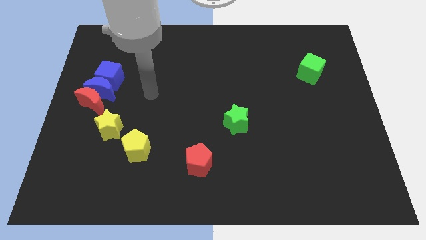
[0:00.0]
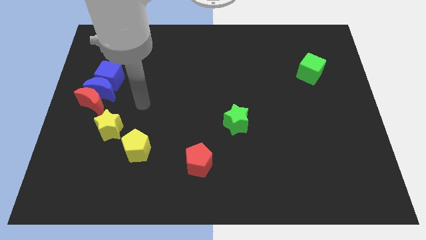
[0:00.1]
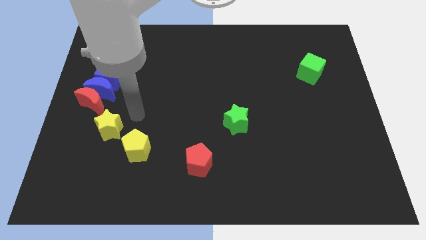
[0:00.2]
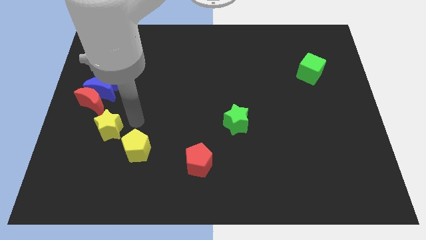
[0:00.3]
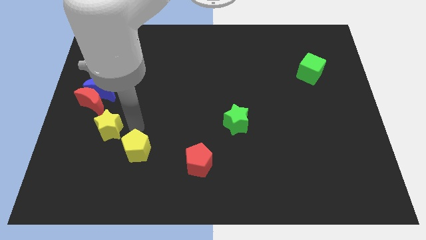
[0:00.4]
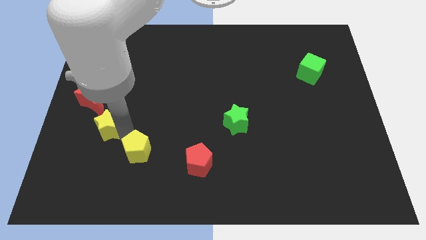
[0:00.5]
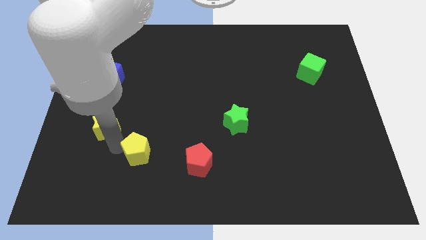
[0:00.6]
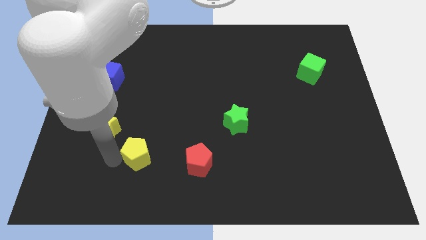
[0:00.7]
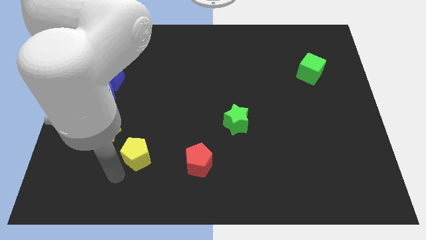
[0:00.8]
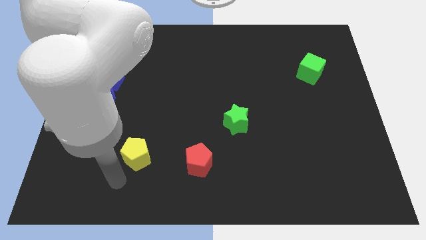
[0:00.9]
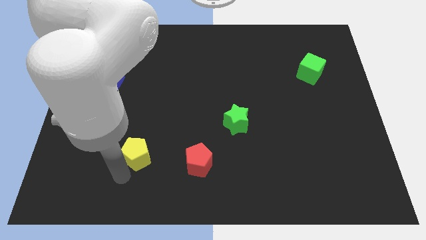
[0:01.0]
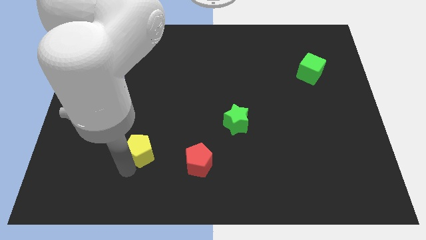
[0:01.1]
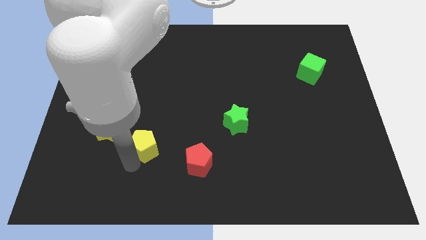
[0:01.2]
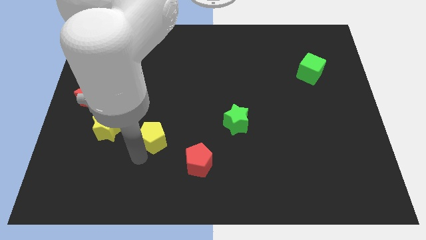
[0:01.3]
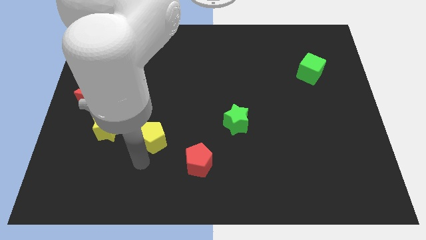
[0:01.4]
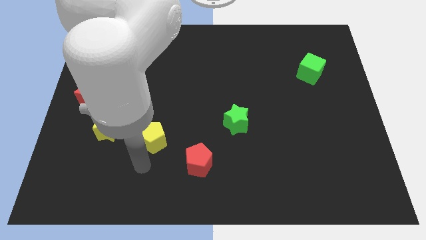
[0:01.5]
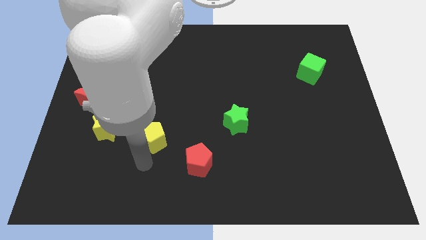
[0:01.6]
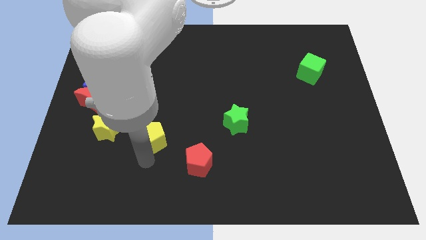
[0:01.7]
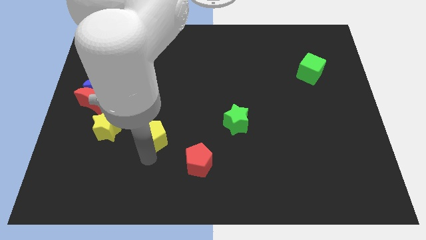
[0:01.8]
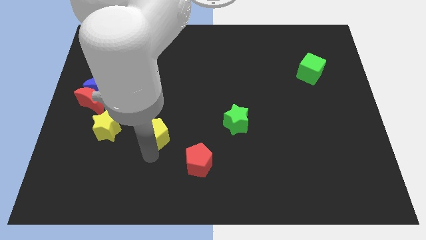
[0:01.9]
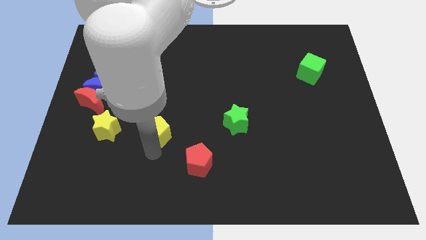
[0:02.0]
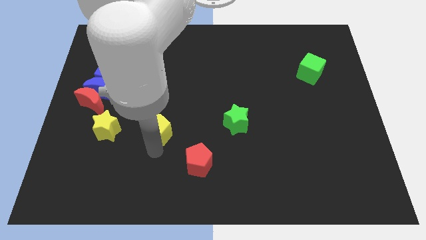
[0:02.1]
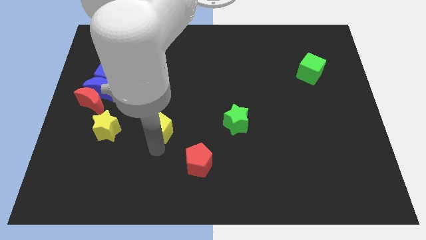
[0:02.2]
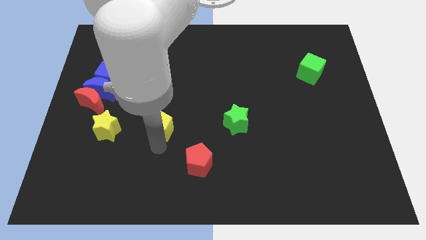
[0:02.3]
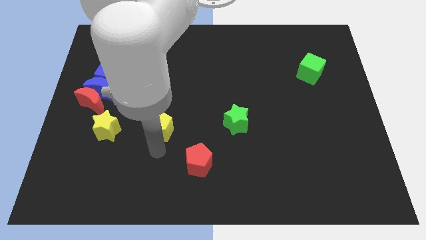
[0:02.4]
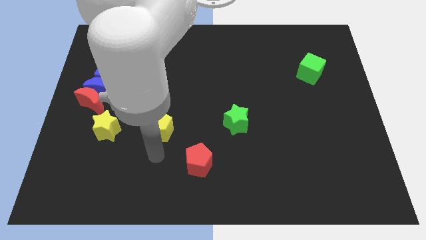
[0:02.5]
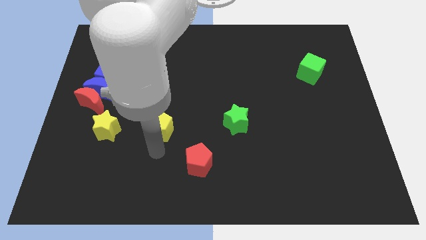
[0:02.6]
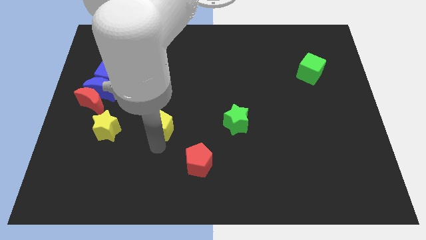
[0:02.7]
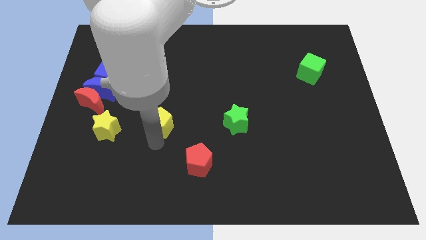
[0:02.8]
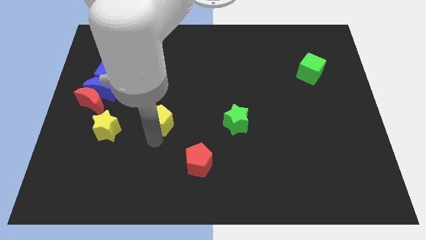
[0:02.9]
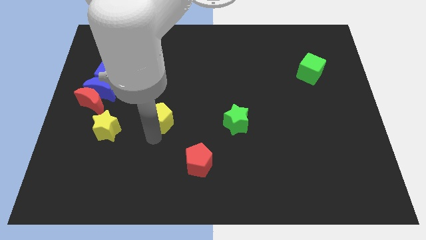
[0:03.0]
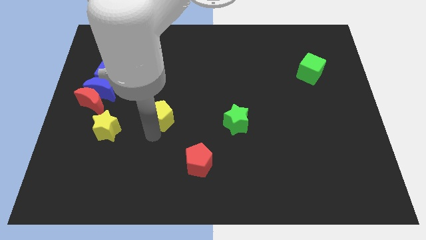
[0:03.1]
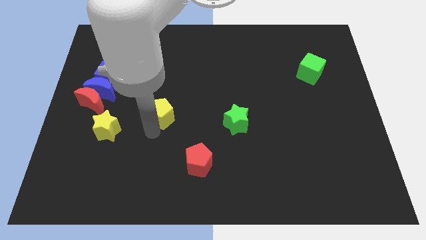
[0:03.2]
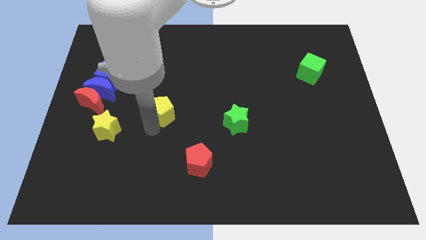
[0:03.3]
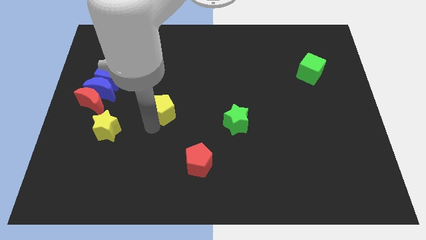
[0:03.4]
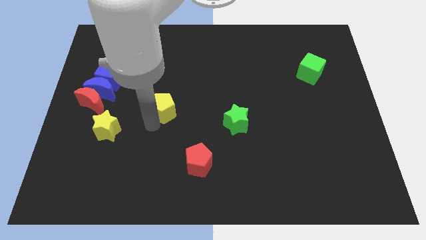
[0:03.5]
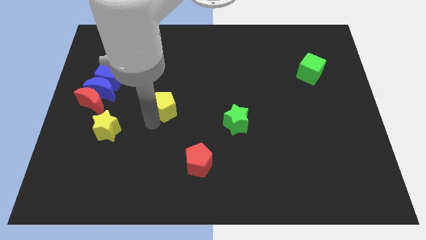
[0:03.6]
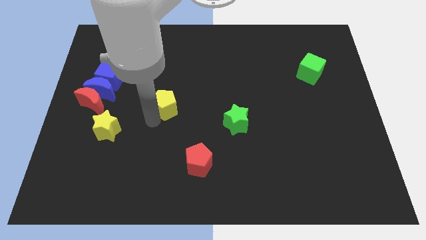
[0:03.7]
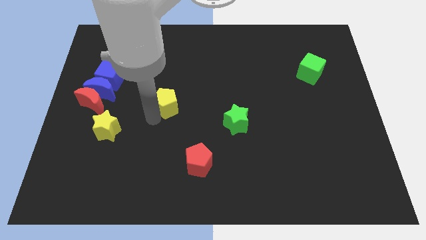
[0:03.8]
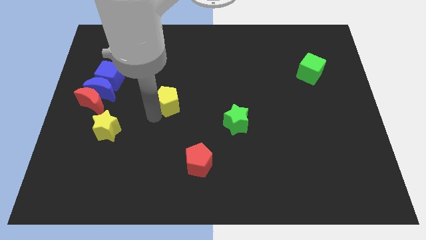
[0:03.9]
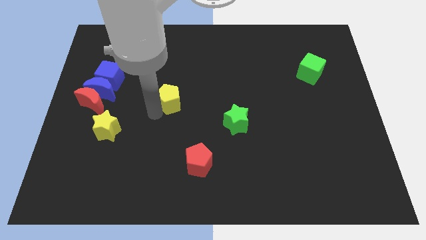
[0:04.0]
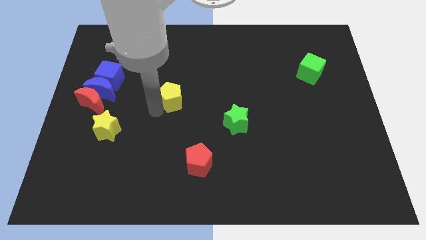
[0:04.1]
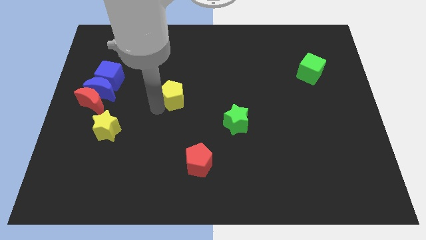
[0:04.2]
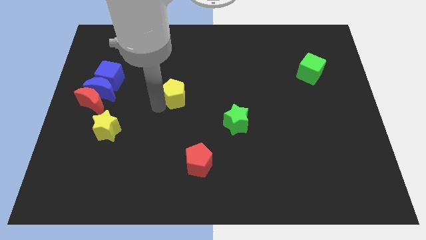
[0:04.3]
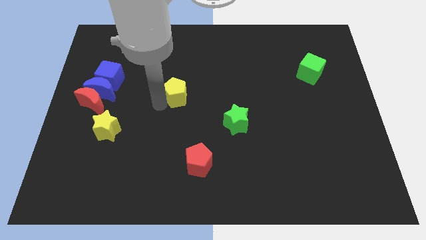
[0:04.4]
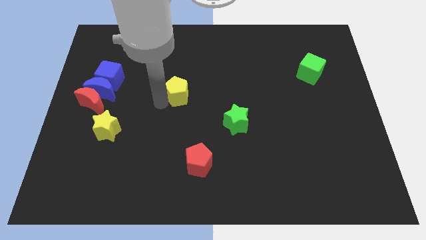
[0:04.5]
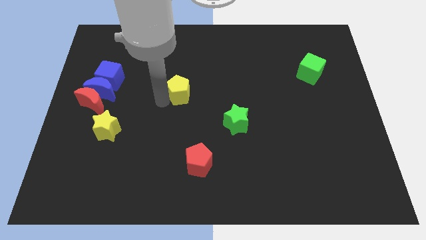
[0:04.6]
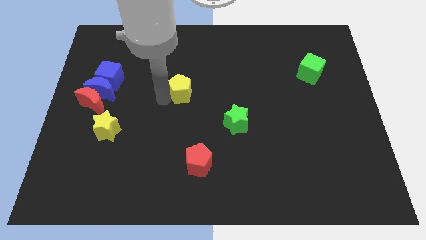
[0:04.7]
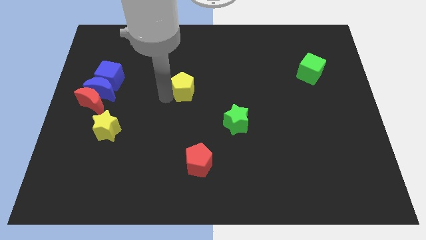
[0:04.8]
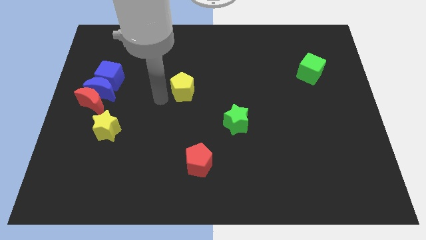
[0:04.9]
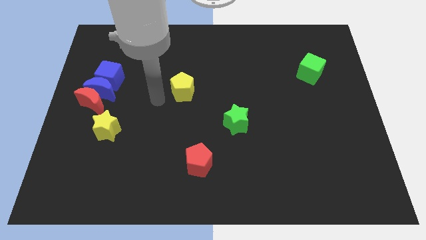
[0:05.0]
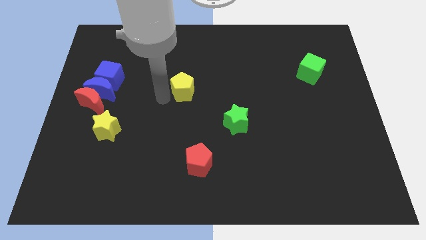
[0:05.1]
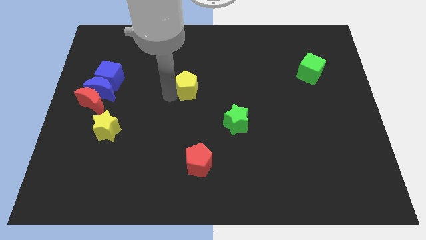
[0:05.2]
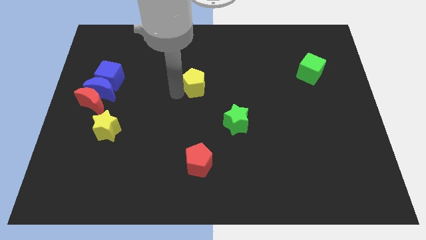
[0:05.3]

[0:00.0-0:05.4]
move the yellow pentagon upwards and to the right

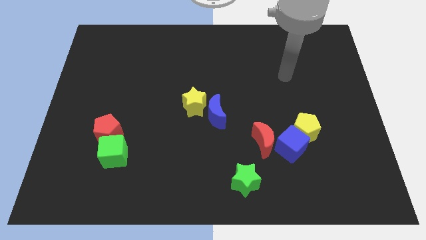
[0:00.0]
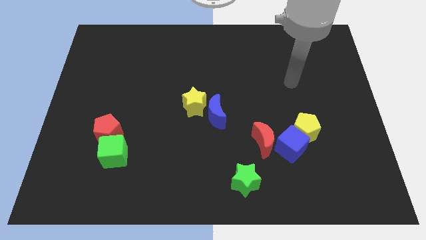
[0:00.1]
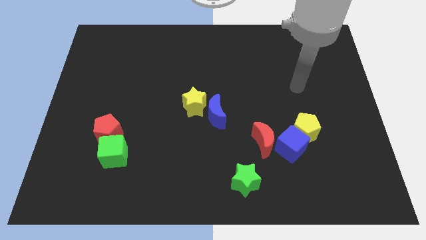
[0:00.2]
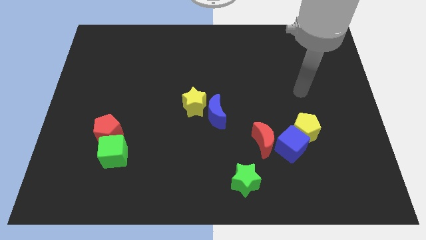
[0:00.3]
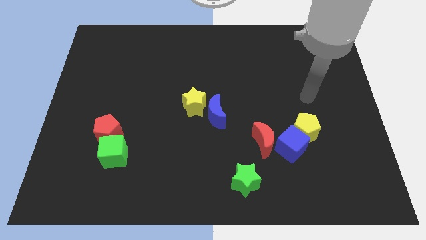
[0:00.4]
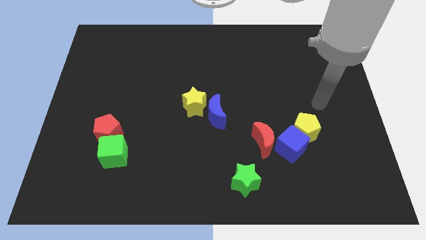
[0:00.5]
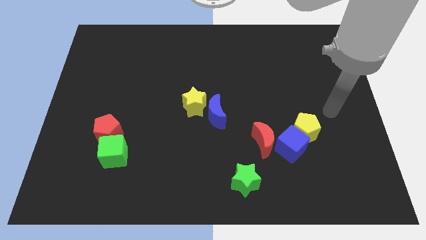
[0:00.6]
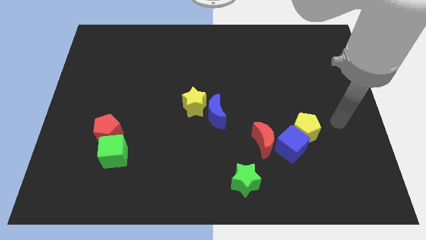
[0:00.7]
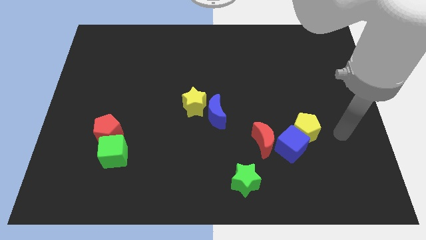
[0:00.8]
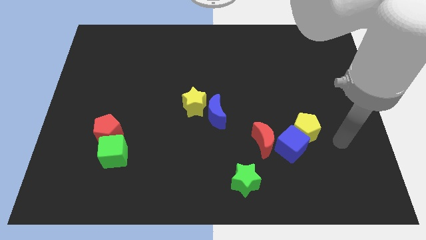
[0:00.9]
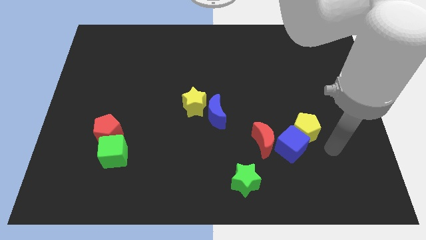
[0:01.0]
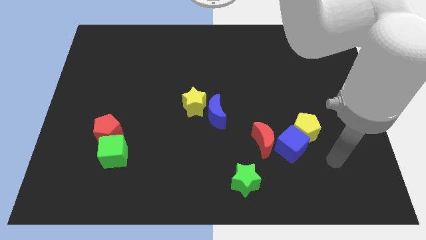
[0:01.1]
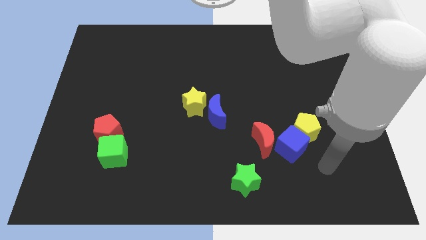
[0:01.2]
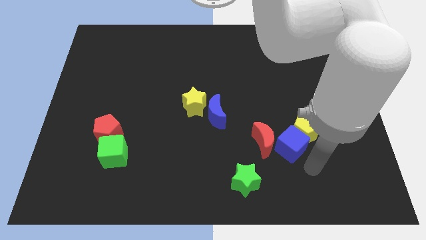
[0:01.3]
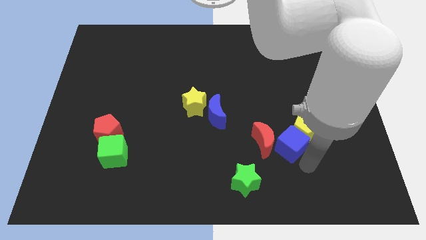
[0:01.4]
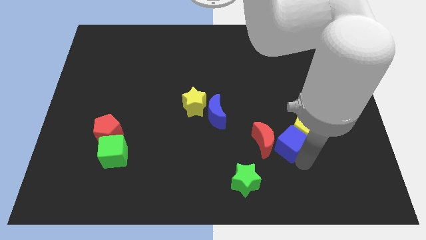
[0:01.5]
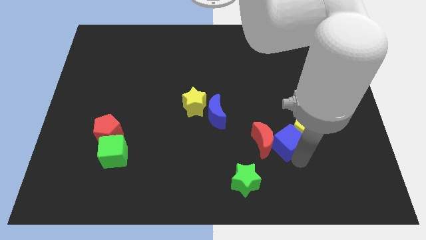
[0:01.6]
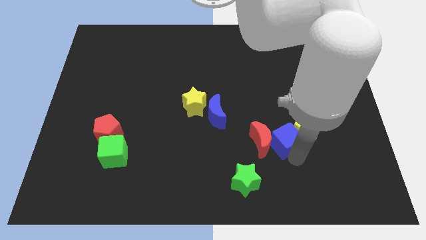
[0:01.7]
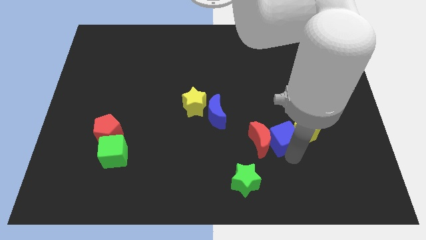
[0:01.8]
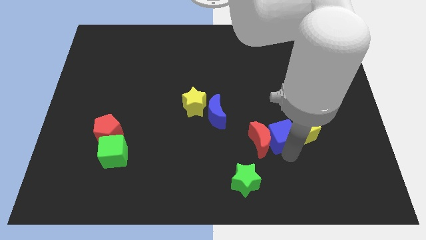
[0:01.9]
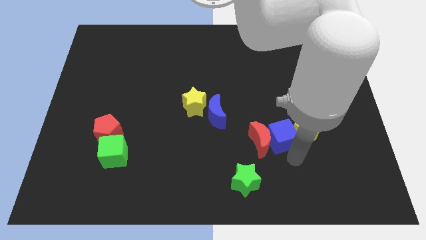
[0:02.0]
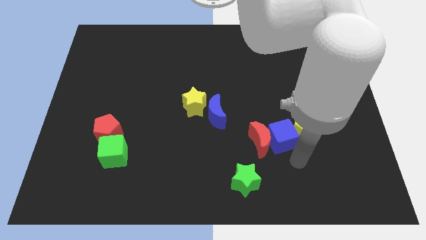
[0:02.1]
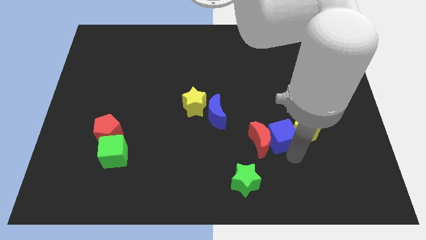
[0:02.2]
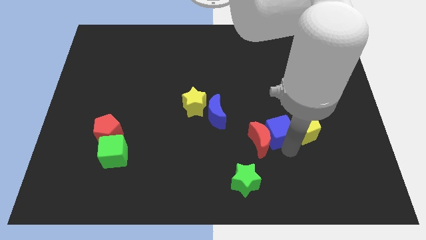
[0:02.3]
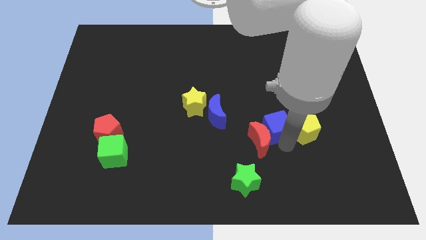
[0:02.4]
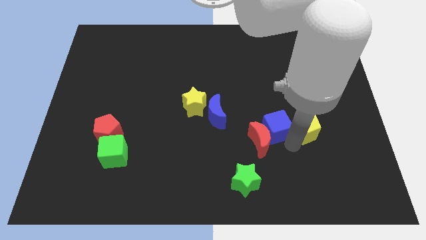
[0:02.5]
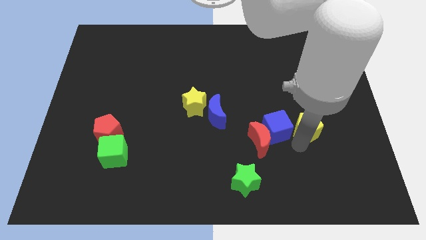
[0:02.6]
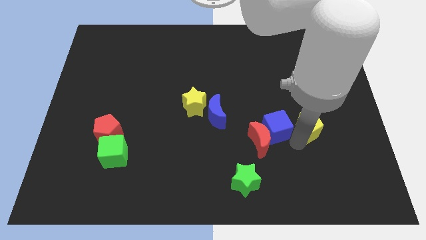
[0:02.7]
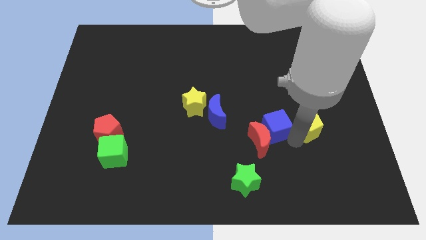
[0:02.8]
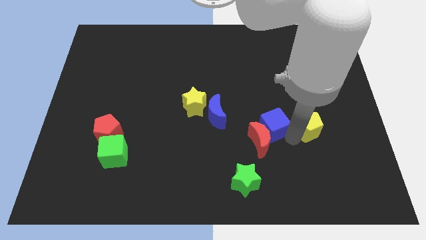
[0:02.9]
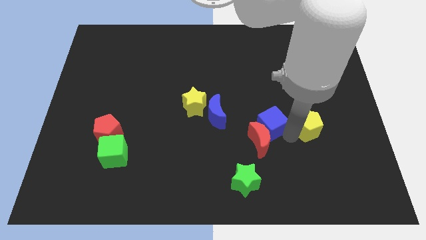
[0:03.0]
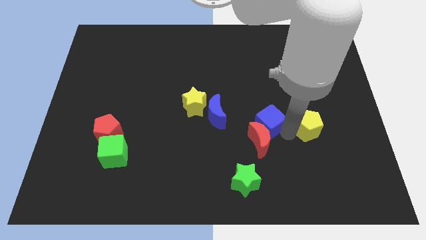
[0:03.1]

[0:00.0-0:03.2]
slightly slide the blue cube upwards and left

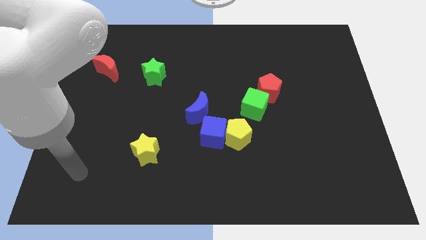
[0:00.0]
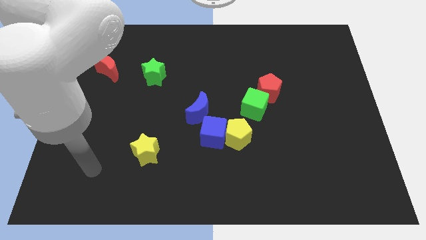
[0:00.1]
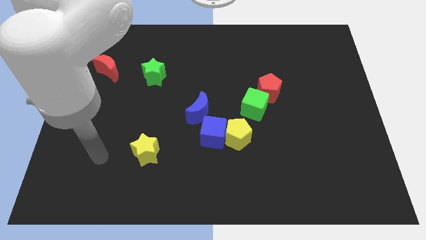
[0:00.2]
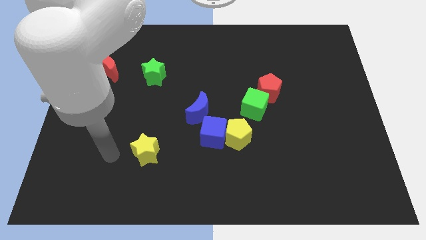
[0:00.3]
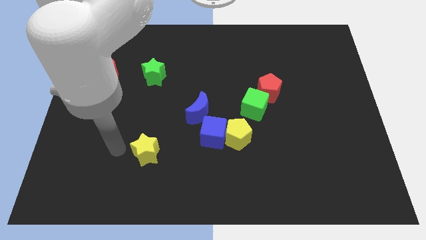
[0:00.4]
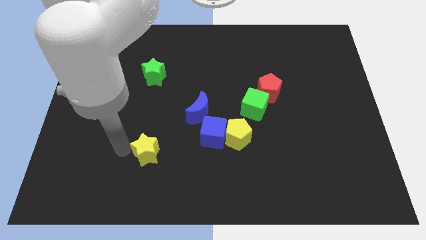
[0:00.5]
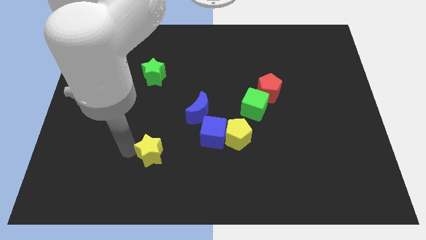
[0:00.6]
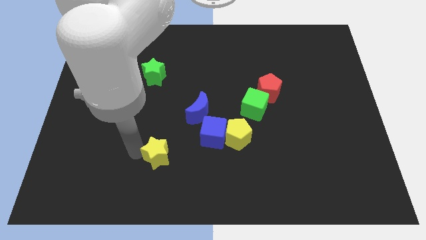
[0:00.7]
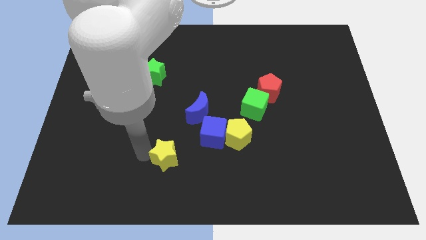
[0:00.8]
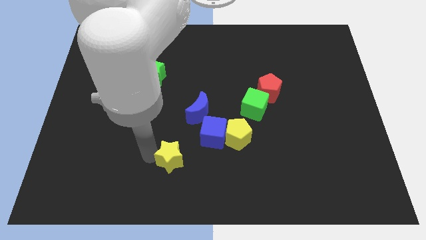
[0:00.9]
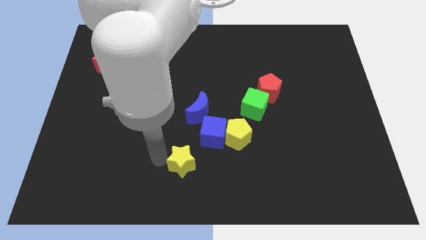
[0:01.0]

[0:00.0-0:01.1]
slightly move the yellow star to the right
